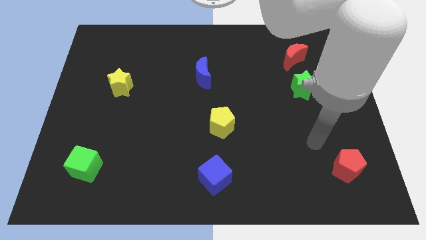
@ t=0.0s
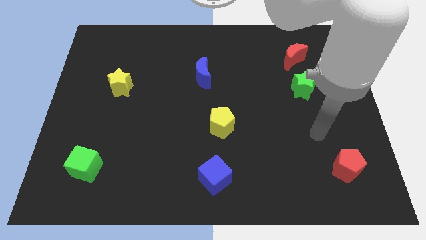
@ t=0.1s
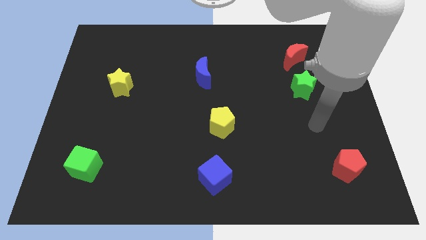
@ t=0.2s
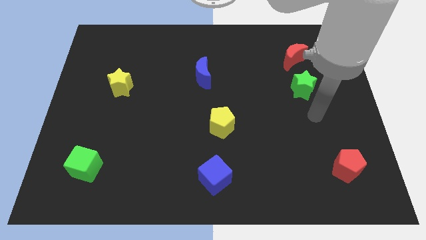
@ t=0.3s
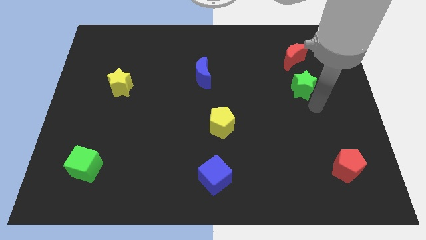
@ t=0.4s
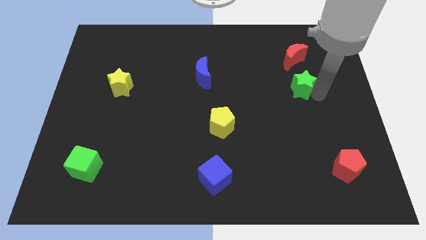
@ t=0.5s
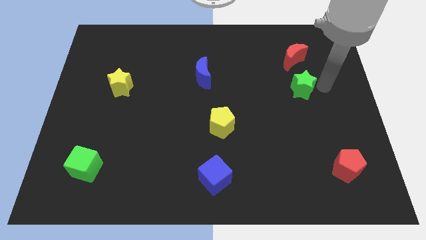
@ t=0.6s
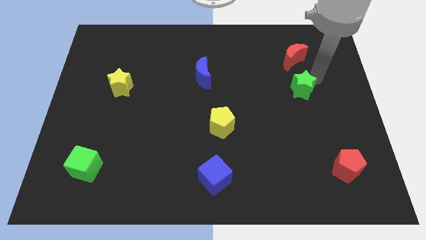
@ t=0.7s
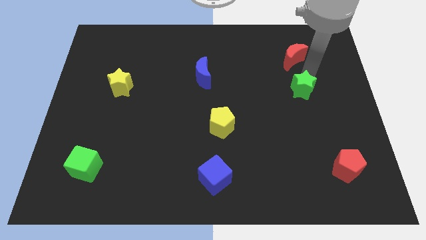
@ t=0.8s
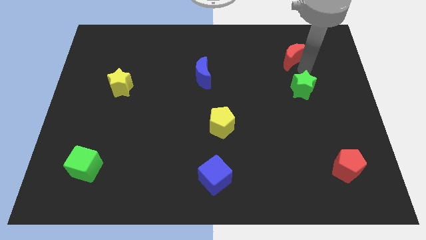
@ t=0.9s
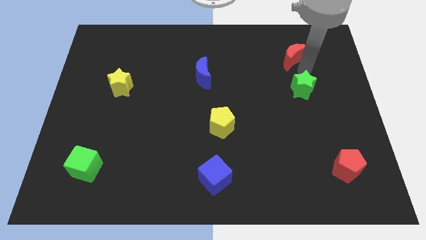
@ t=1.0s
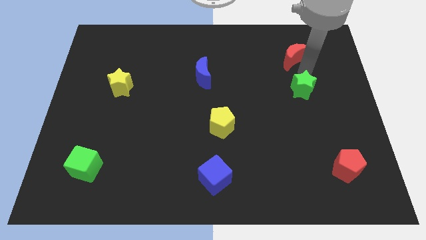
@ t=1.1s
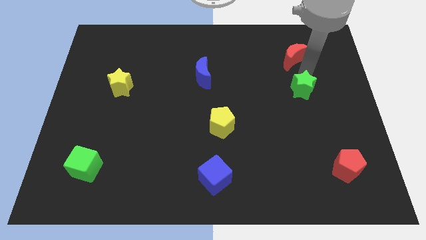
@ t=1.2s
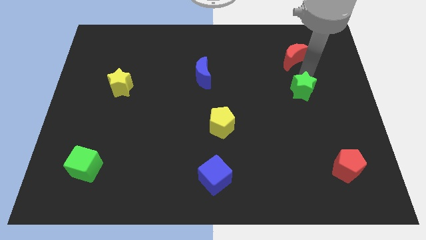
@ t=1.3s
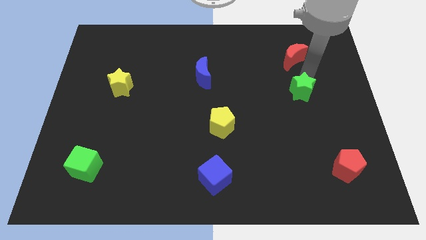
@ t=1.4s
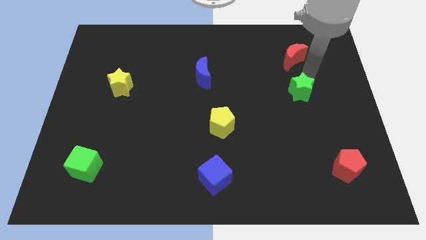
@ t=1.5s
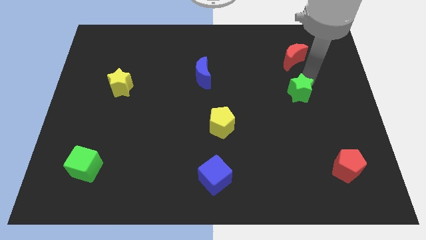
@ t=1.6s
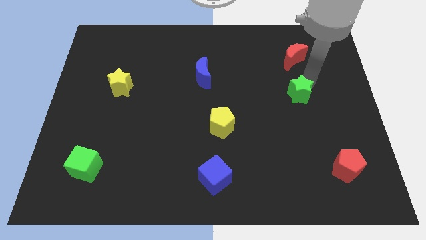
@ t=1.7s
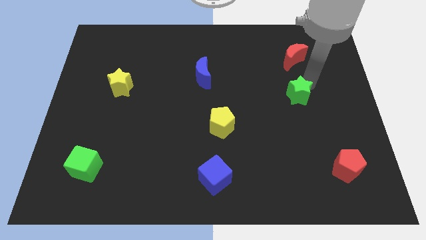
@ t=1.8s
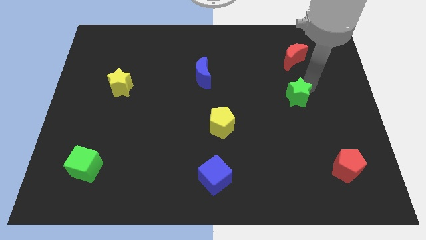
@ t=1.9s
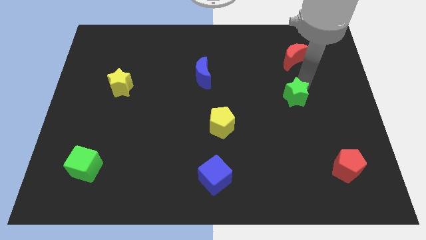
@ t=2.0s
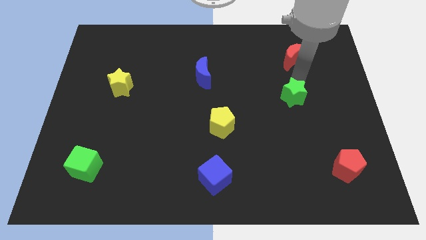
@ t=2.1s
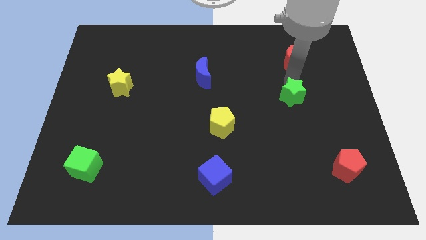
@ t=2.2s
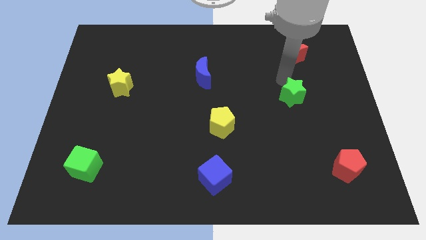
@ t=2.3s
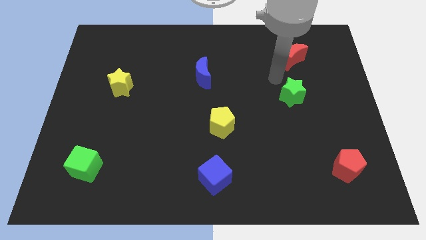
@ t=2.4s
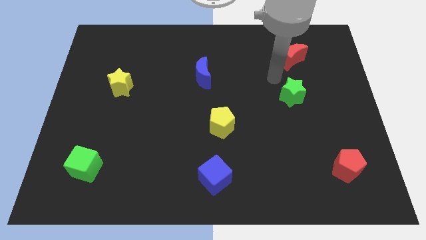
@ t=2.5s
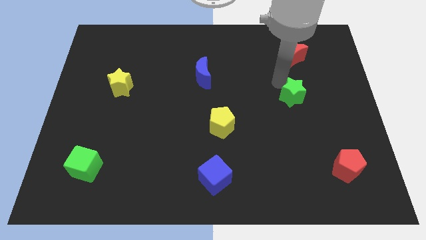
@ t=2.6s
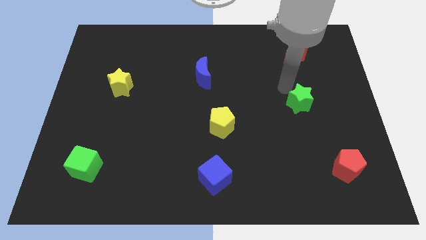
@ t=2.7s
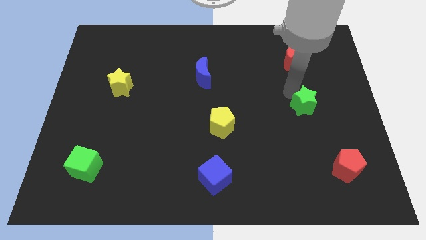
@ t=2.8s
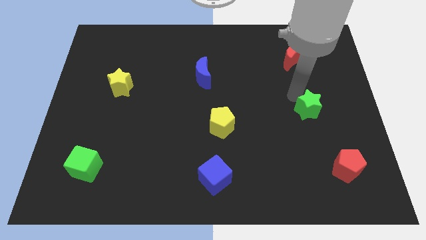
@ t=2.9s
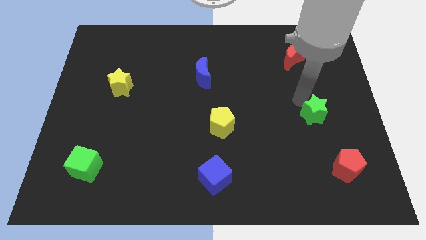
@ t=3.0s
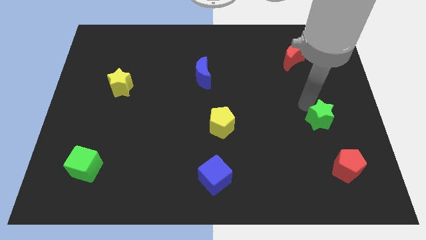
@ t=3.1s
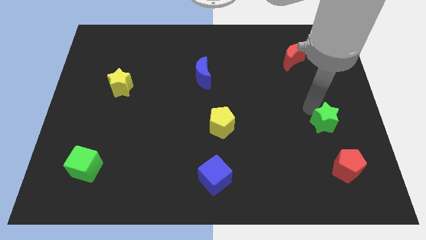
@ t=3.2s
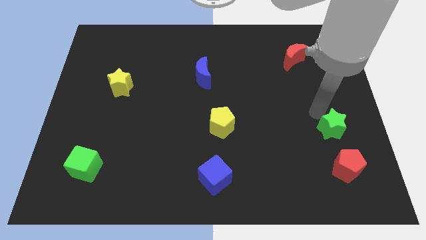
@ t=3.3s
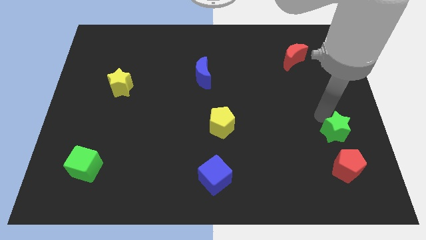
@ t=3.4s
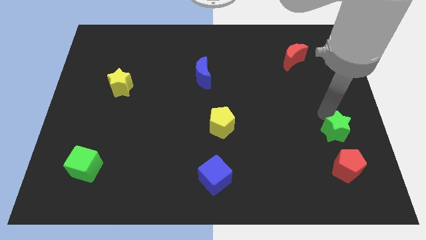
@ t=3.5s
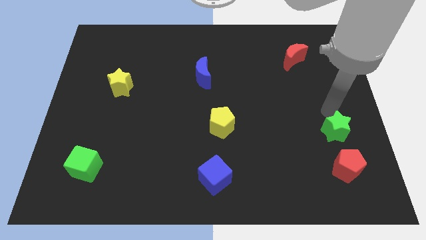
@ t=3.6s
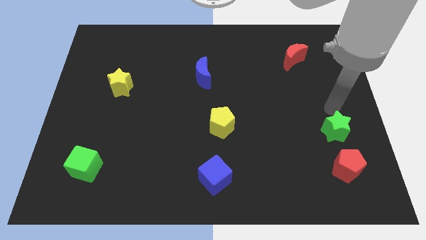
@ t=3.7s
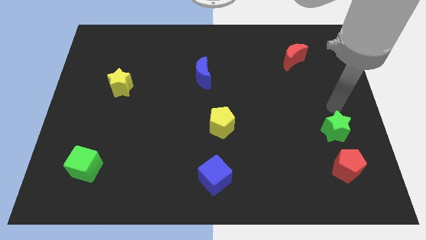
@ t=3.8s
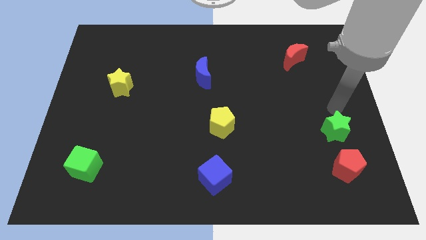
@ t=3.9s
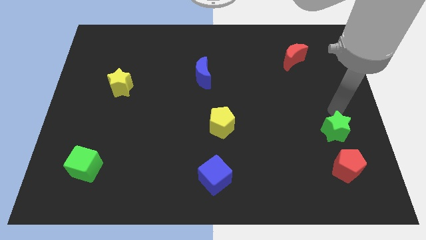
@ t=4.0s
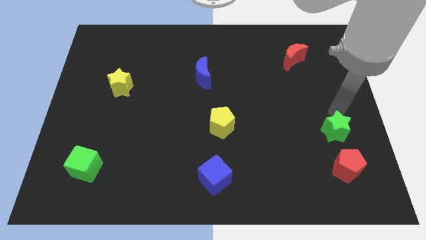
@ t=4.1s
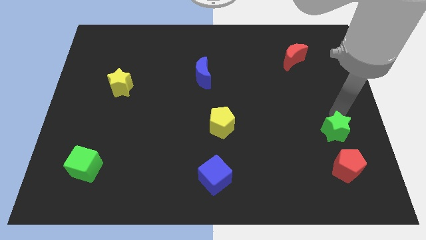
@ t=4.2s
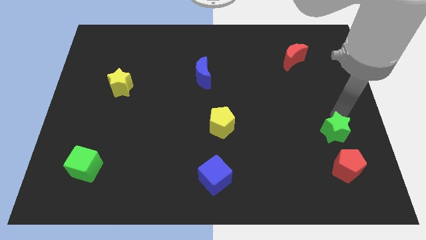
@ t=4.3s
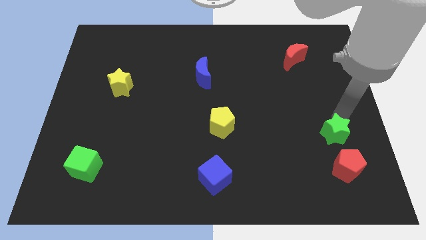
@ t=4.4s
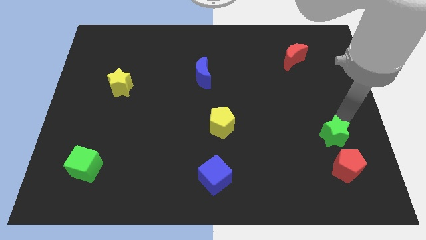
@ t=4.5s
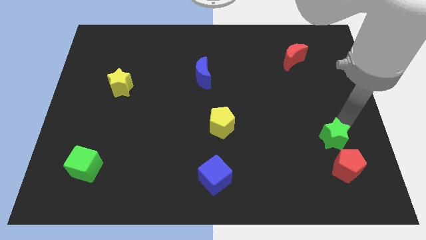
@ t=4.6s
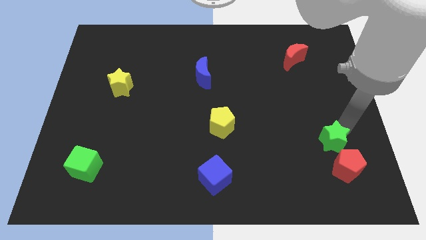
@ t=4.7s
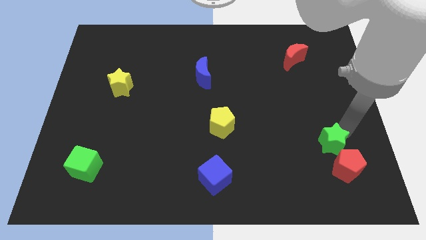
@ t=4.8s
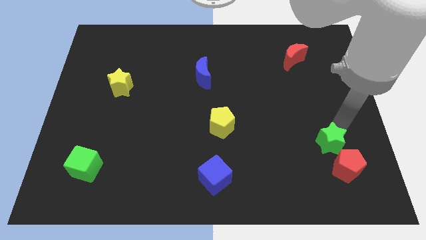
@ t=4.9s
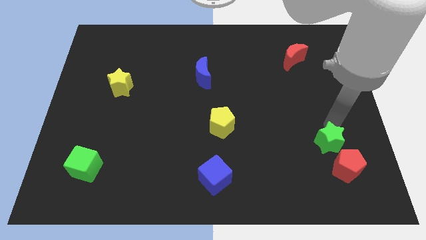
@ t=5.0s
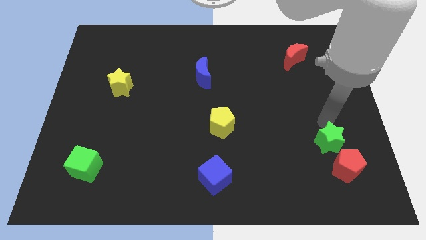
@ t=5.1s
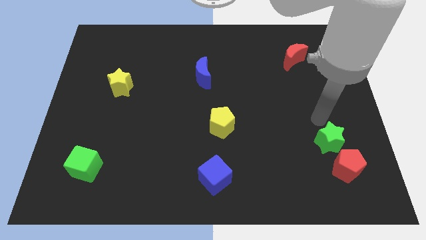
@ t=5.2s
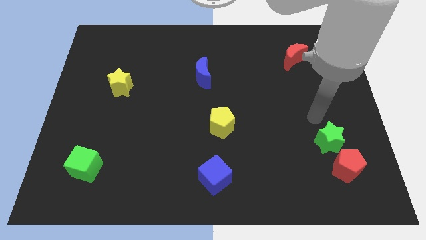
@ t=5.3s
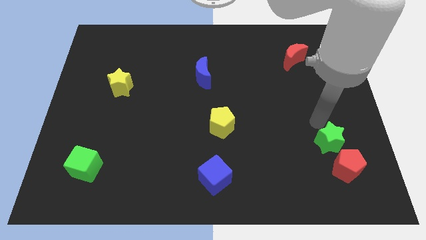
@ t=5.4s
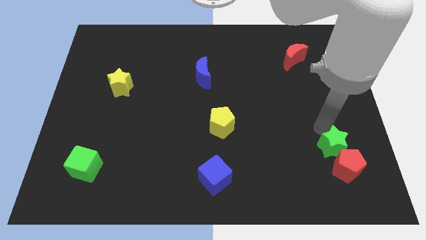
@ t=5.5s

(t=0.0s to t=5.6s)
slide the green star next to the red pentagon

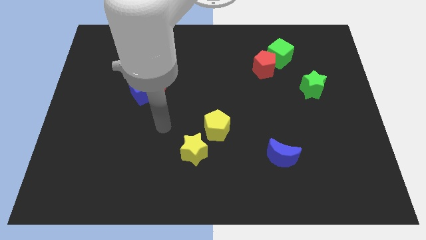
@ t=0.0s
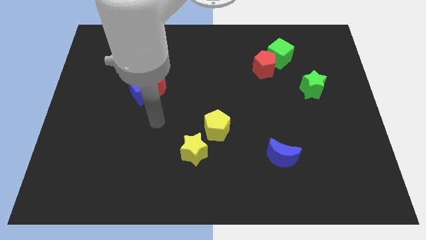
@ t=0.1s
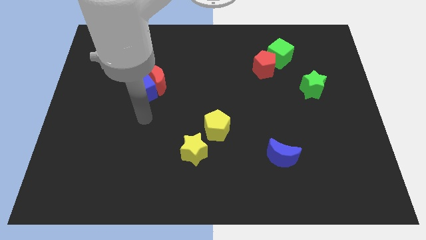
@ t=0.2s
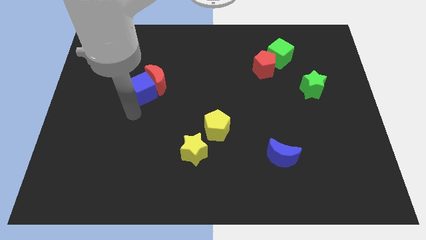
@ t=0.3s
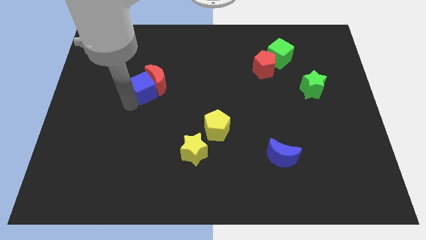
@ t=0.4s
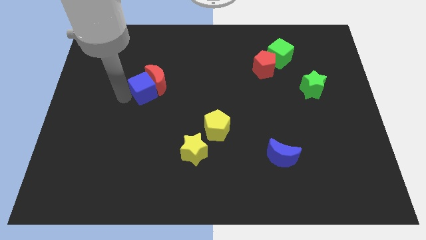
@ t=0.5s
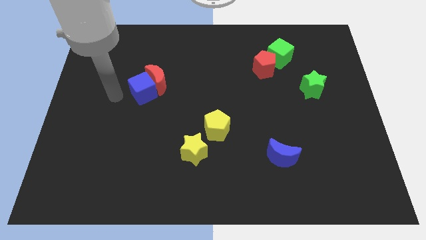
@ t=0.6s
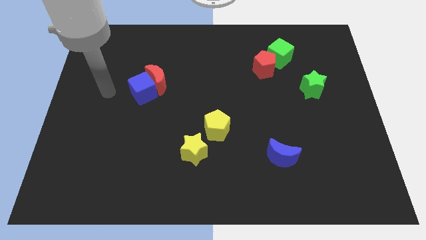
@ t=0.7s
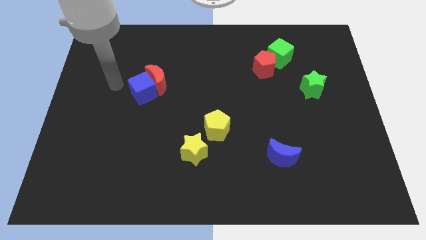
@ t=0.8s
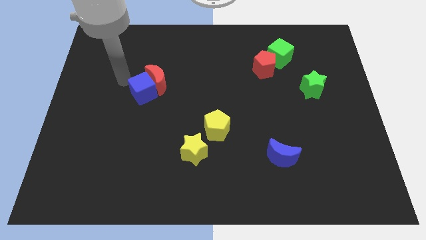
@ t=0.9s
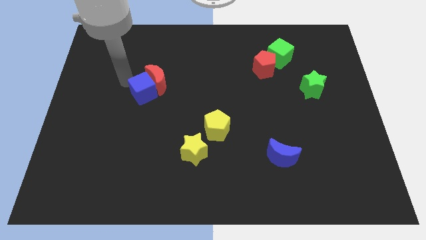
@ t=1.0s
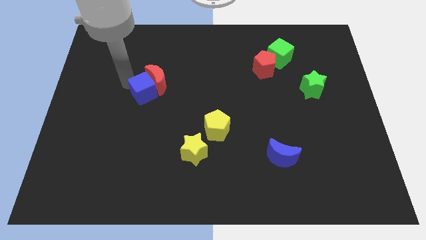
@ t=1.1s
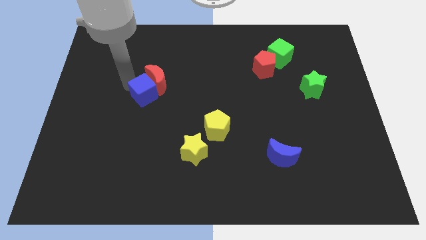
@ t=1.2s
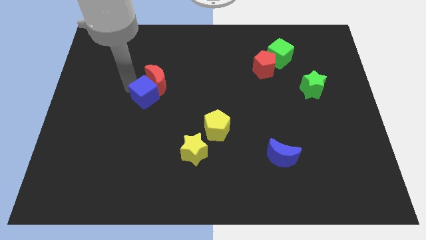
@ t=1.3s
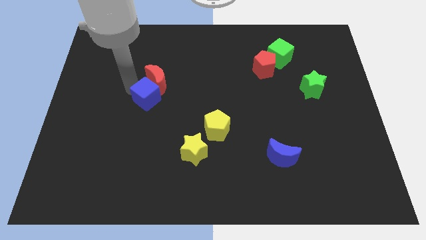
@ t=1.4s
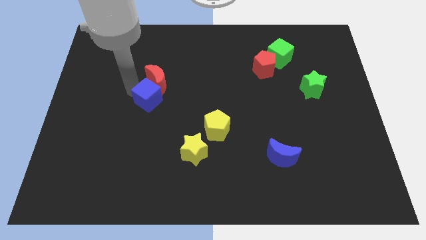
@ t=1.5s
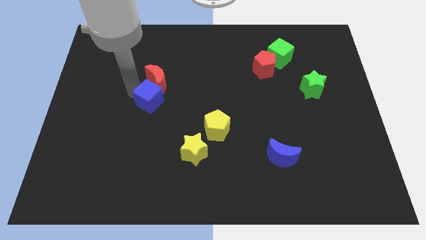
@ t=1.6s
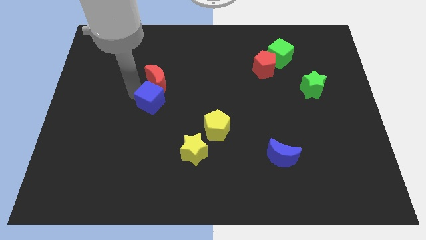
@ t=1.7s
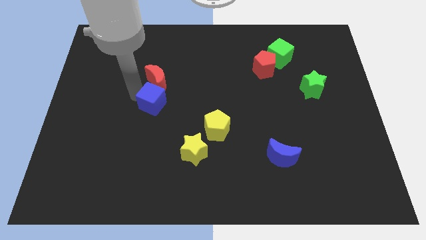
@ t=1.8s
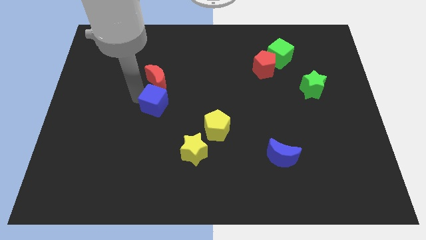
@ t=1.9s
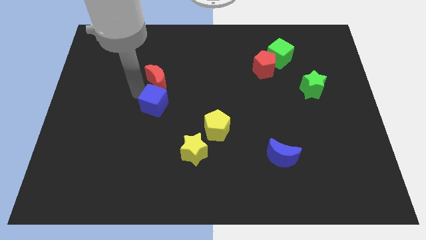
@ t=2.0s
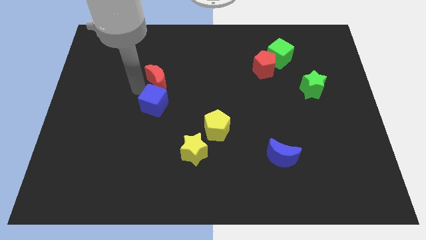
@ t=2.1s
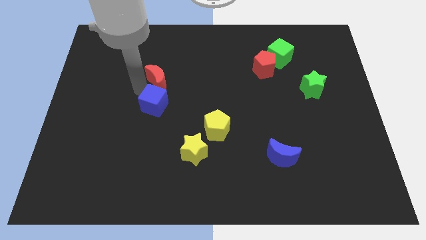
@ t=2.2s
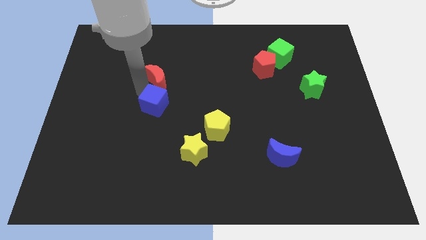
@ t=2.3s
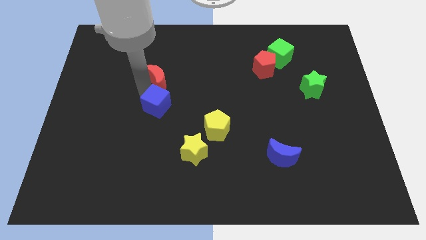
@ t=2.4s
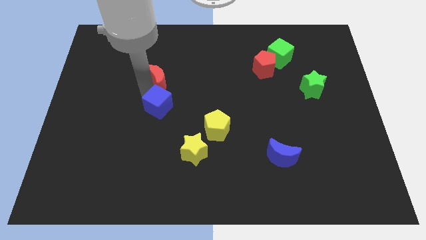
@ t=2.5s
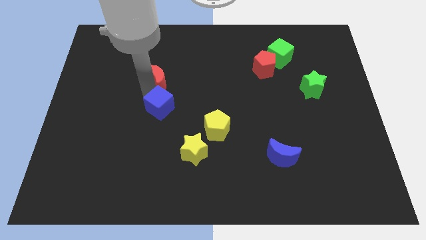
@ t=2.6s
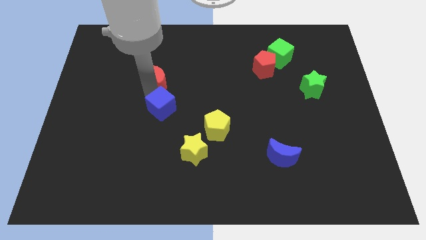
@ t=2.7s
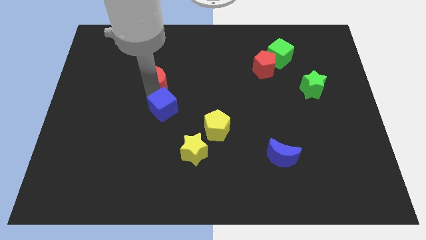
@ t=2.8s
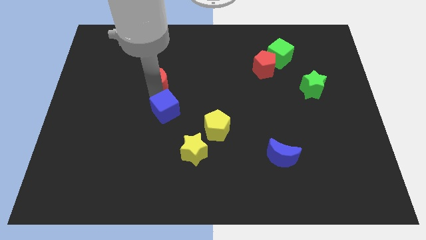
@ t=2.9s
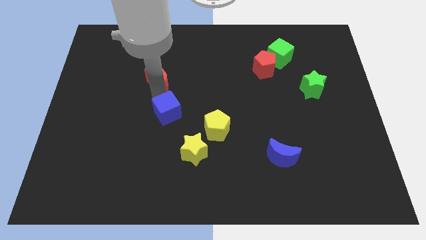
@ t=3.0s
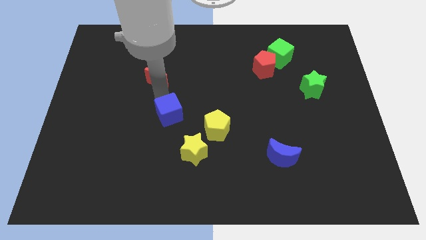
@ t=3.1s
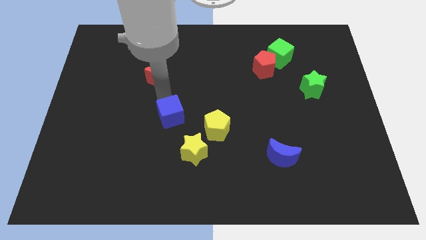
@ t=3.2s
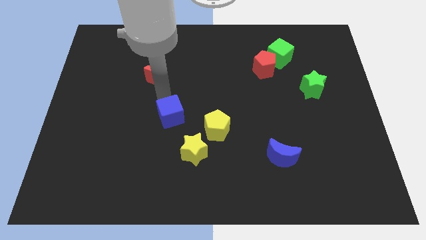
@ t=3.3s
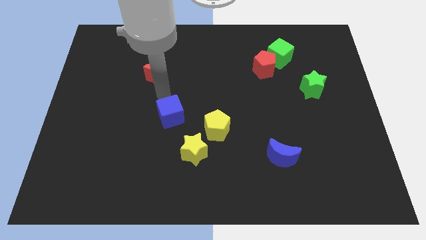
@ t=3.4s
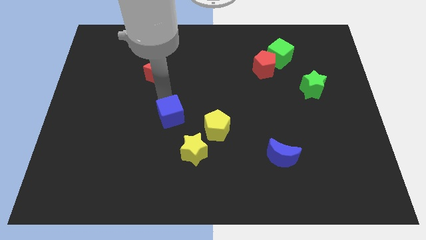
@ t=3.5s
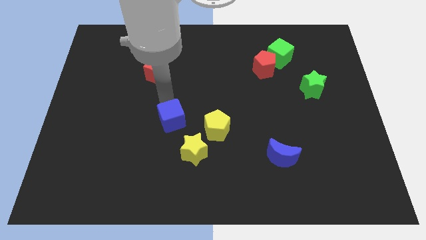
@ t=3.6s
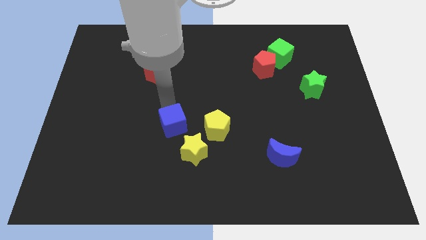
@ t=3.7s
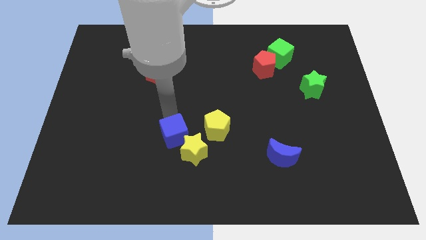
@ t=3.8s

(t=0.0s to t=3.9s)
slide the blue cube towards the yellow star
